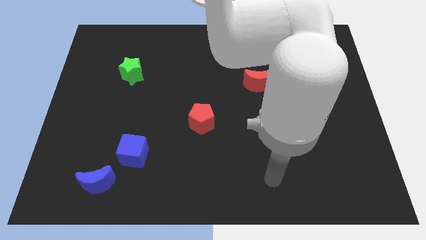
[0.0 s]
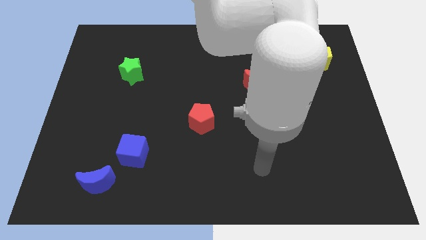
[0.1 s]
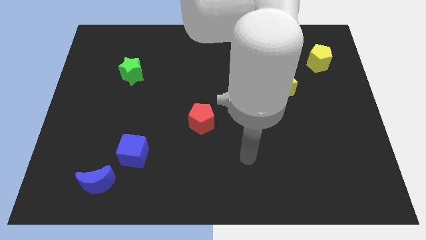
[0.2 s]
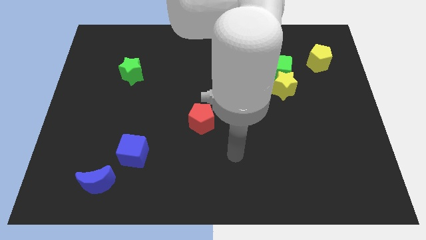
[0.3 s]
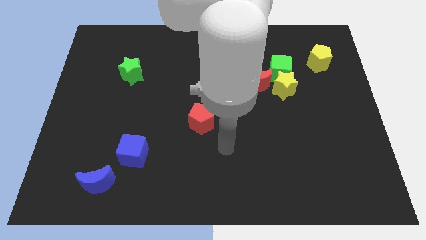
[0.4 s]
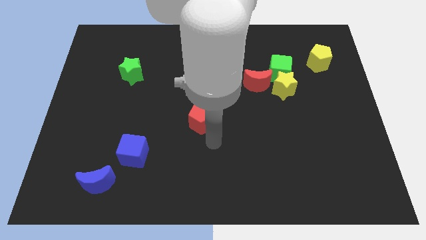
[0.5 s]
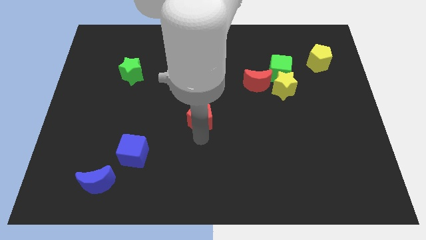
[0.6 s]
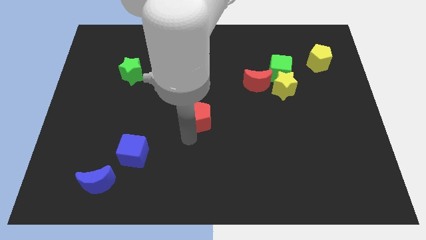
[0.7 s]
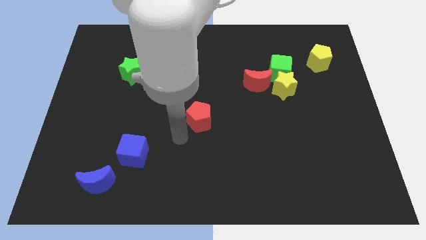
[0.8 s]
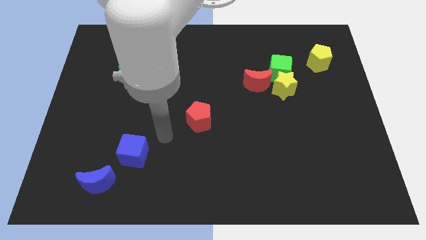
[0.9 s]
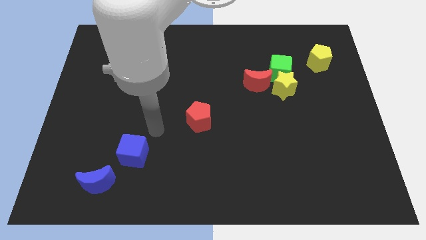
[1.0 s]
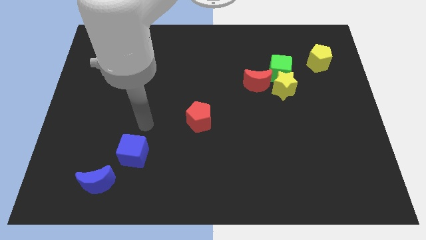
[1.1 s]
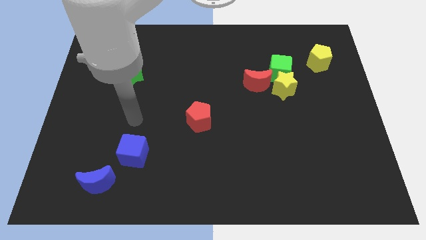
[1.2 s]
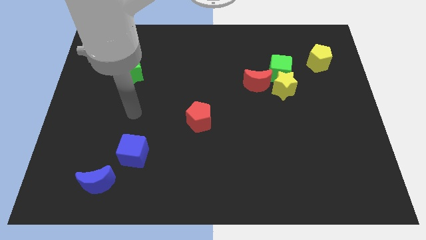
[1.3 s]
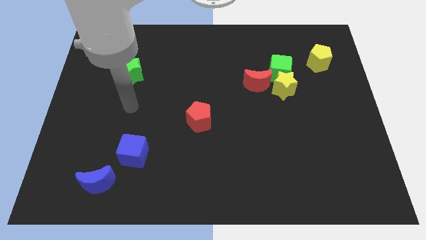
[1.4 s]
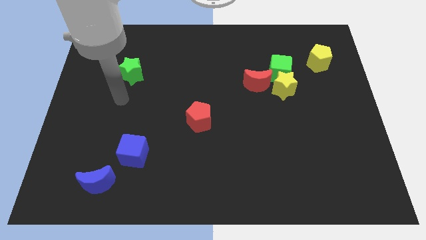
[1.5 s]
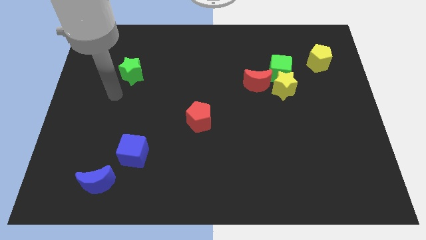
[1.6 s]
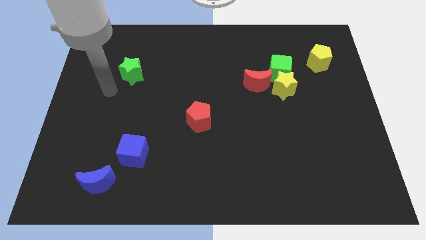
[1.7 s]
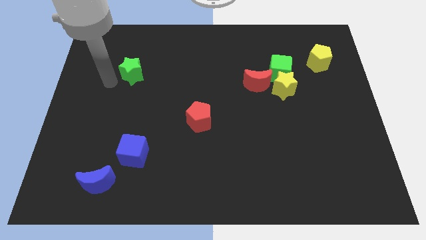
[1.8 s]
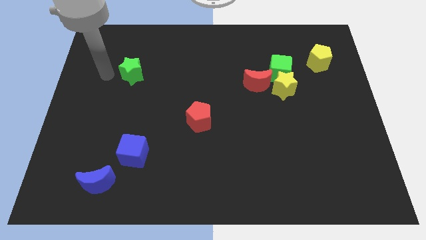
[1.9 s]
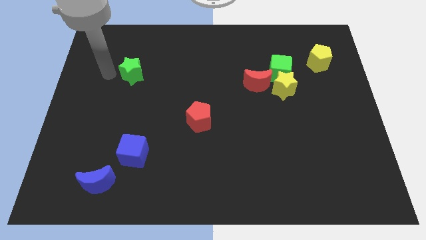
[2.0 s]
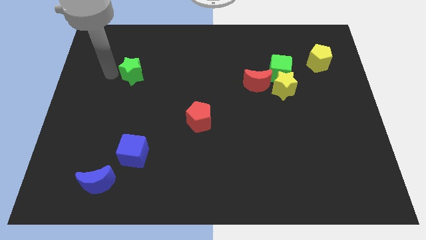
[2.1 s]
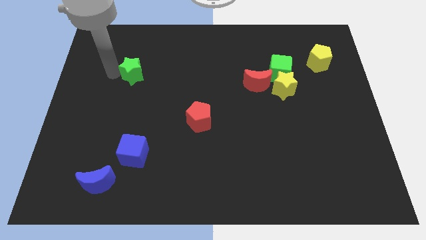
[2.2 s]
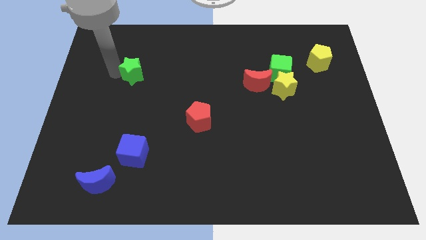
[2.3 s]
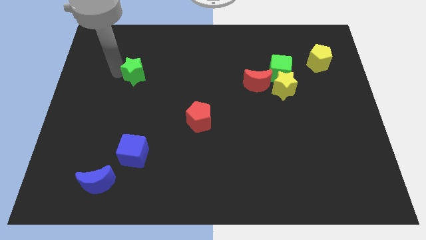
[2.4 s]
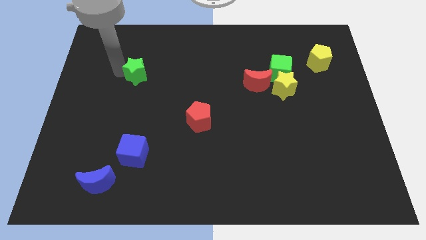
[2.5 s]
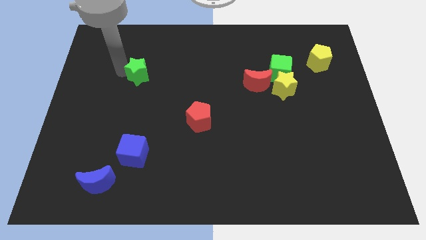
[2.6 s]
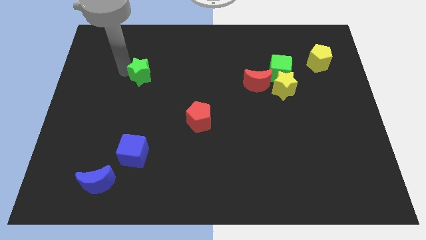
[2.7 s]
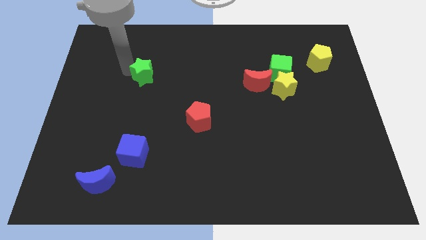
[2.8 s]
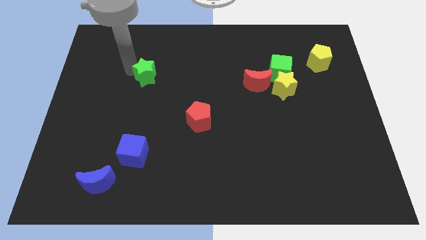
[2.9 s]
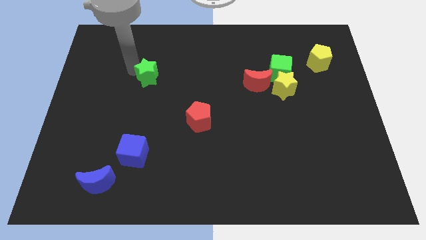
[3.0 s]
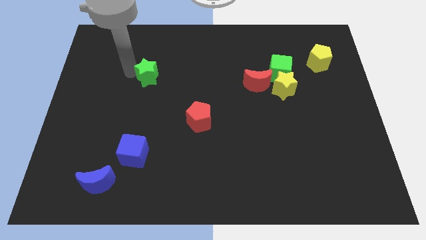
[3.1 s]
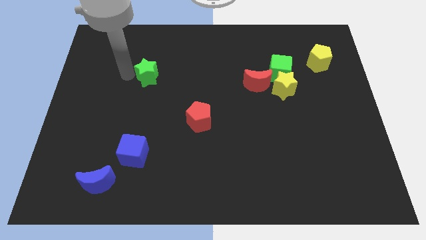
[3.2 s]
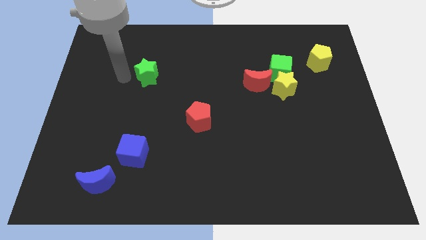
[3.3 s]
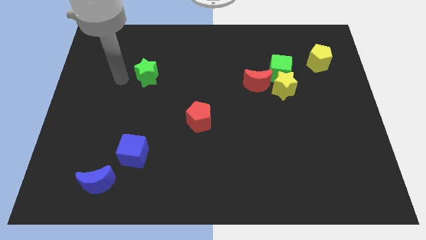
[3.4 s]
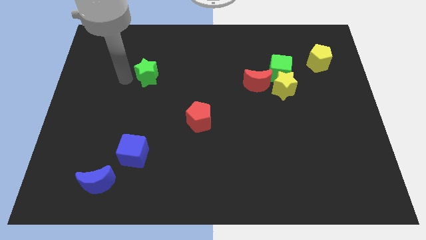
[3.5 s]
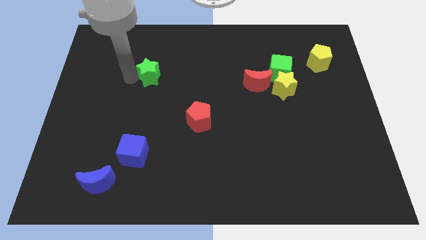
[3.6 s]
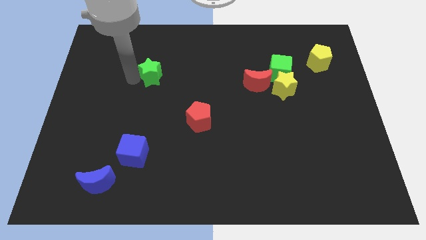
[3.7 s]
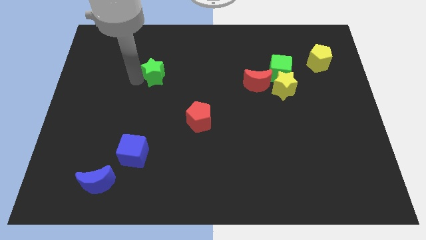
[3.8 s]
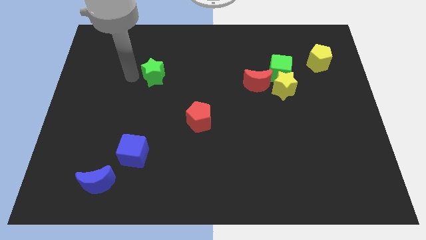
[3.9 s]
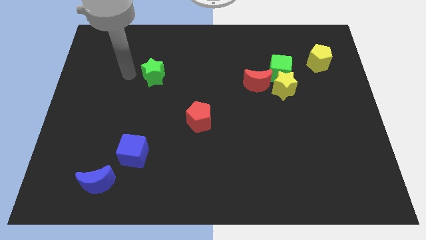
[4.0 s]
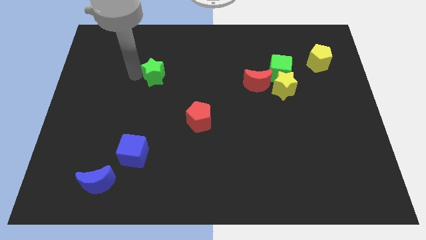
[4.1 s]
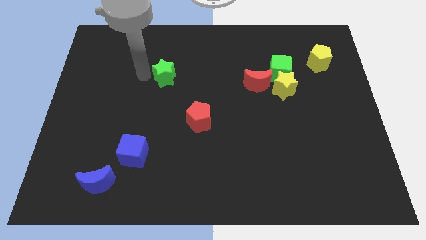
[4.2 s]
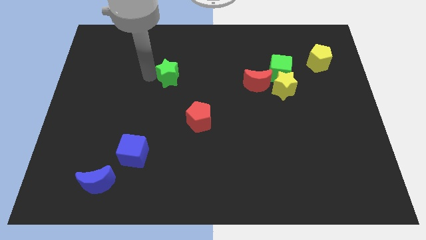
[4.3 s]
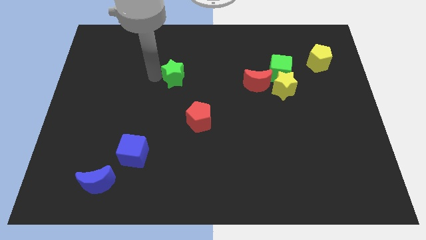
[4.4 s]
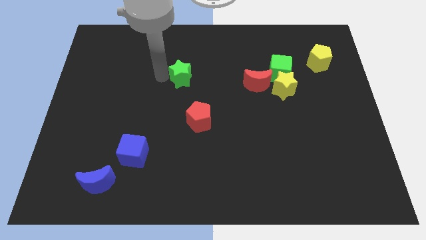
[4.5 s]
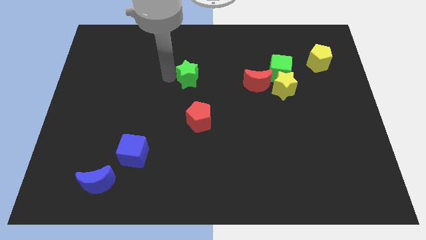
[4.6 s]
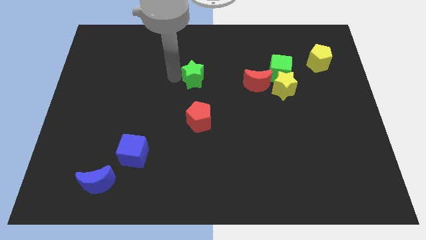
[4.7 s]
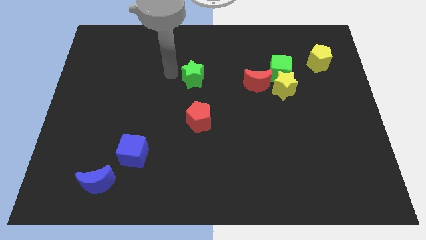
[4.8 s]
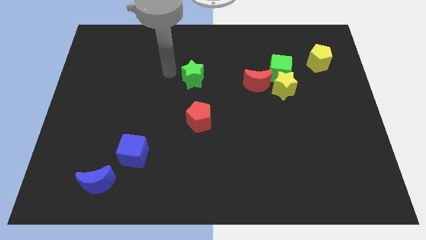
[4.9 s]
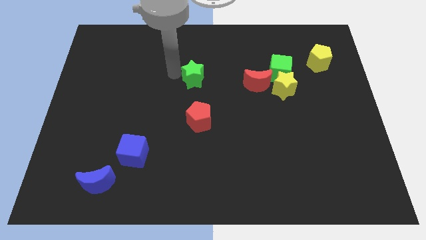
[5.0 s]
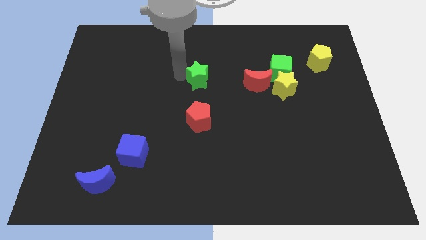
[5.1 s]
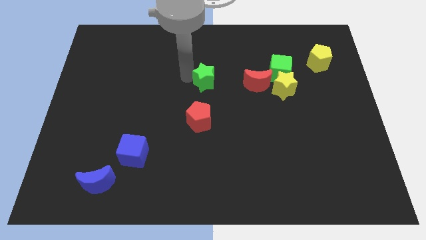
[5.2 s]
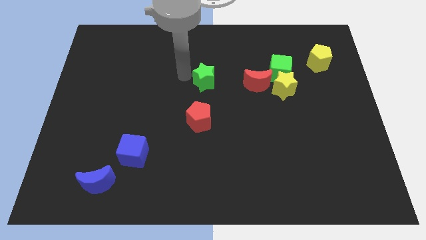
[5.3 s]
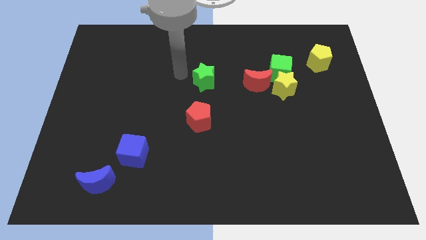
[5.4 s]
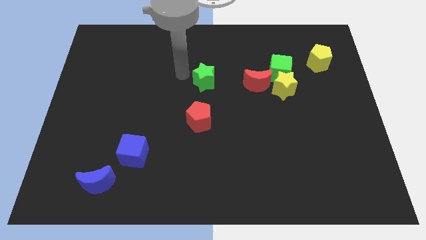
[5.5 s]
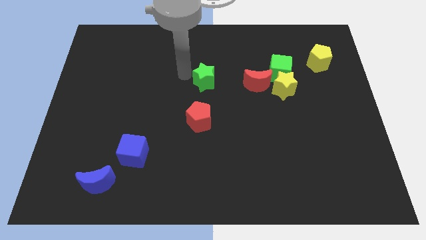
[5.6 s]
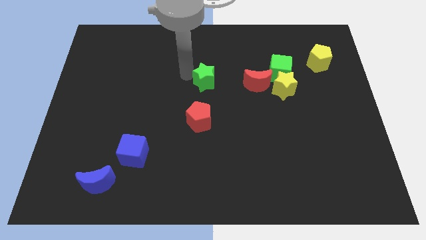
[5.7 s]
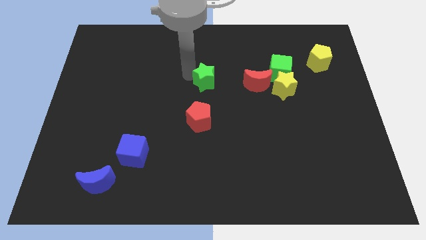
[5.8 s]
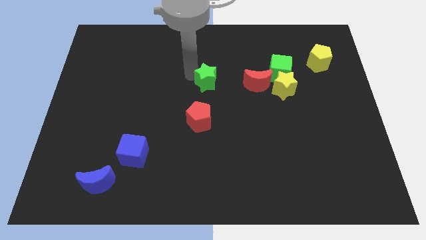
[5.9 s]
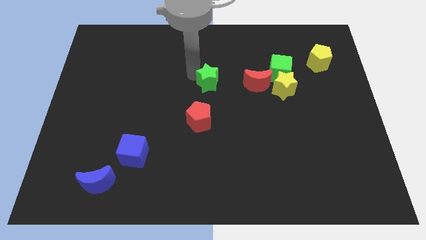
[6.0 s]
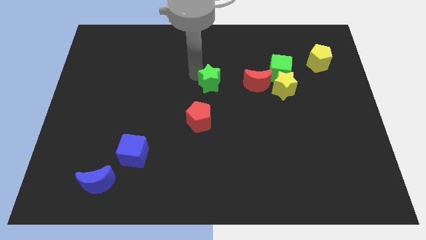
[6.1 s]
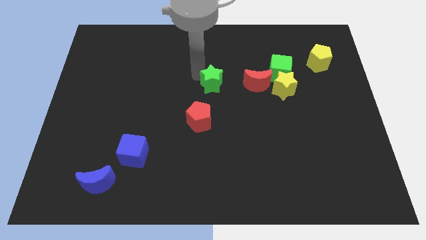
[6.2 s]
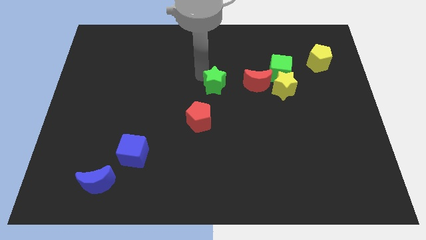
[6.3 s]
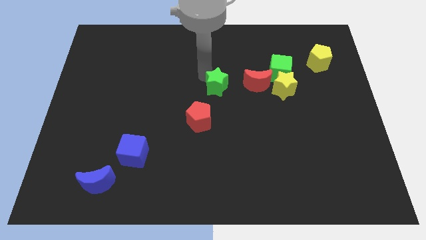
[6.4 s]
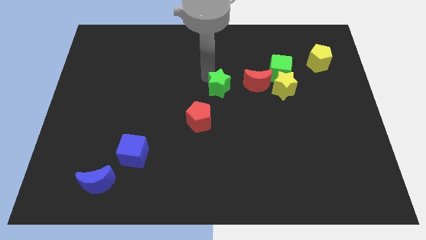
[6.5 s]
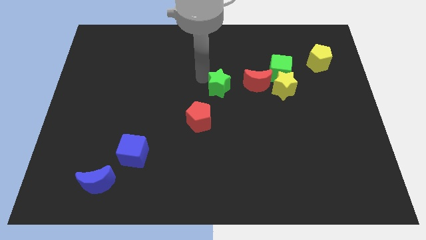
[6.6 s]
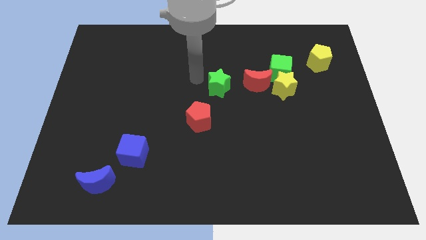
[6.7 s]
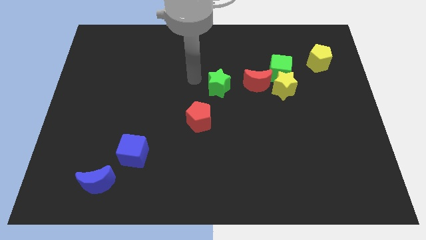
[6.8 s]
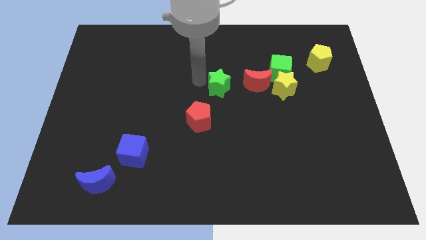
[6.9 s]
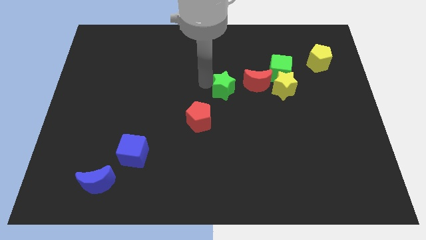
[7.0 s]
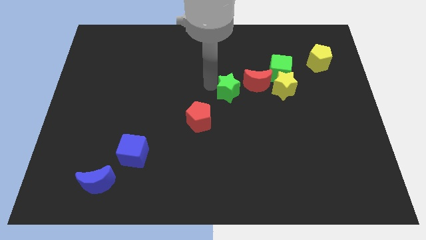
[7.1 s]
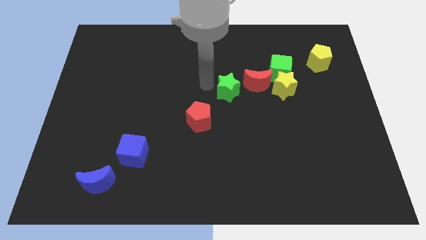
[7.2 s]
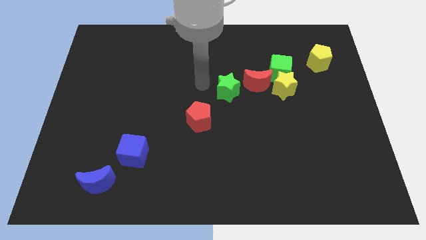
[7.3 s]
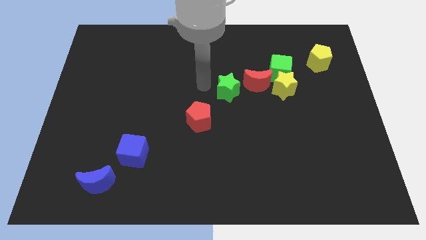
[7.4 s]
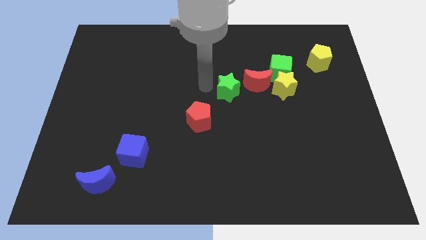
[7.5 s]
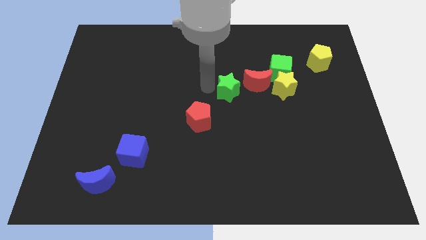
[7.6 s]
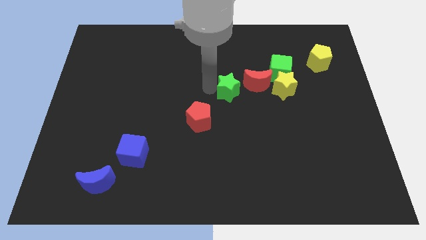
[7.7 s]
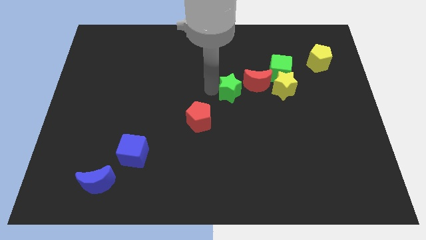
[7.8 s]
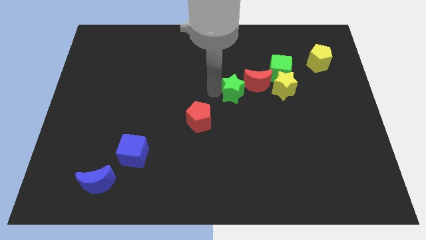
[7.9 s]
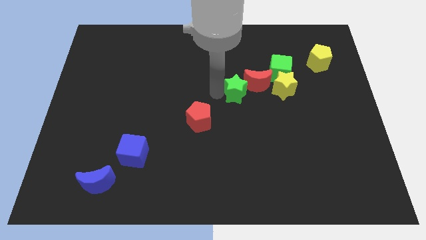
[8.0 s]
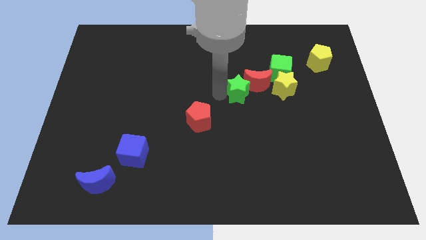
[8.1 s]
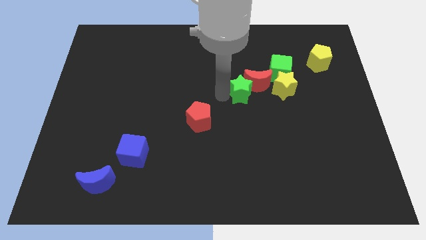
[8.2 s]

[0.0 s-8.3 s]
slide the green star to the bottom left side of the green cube
